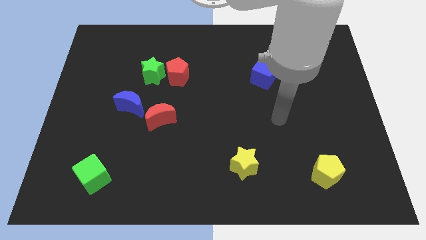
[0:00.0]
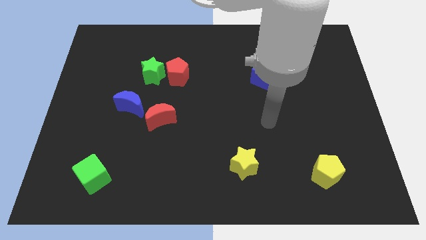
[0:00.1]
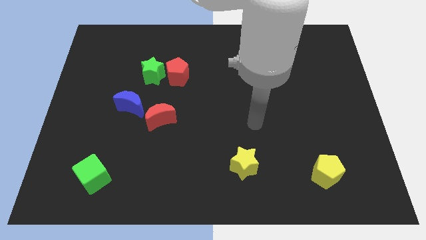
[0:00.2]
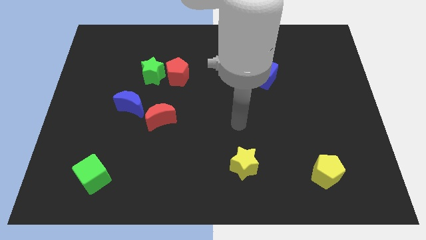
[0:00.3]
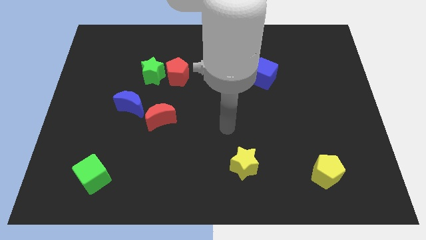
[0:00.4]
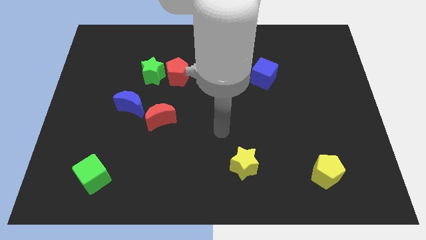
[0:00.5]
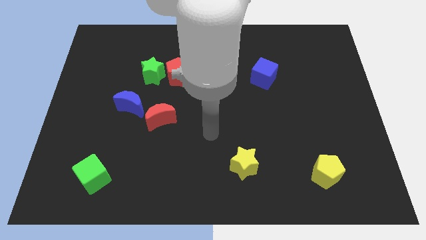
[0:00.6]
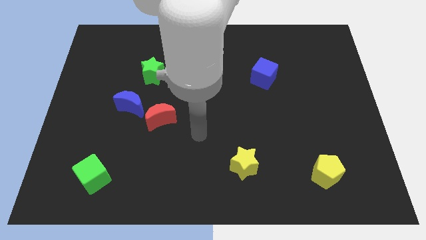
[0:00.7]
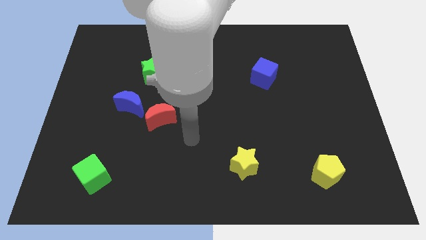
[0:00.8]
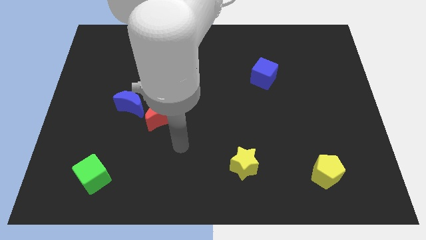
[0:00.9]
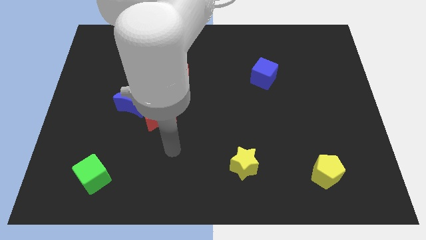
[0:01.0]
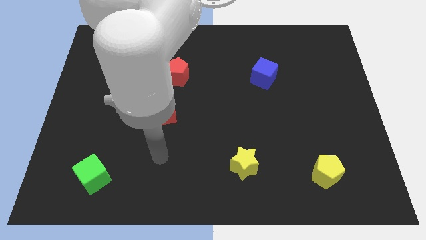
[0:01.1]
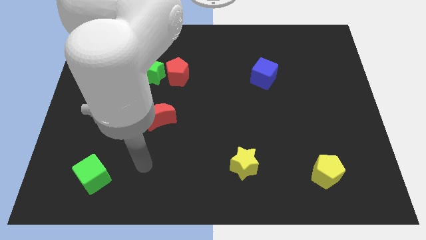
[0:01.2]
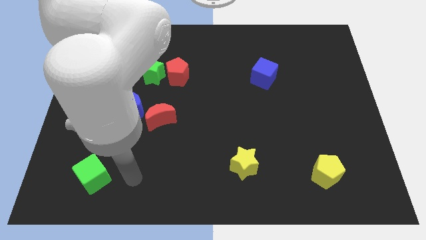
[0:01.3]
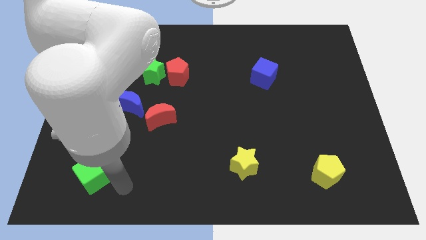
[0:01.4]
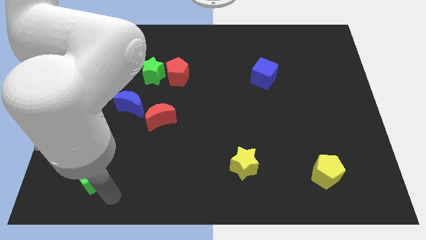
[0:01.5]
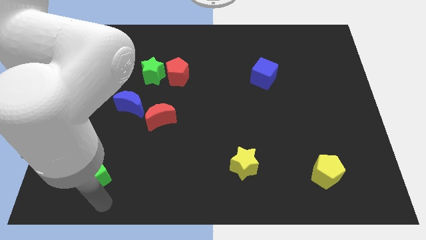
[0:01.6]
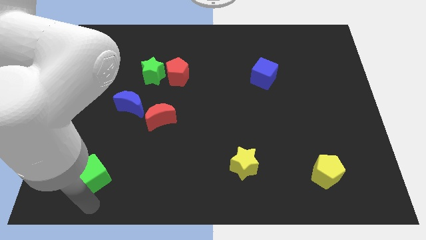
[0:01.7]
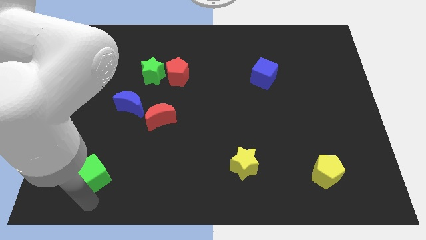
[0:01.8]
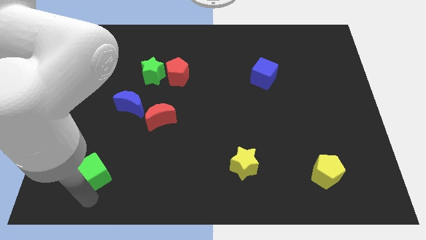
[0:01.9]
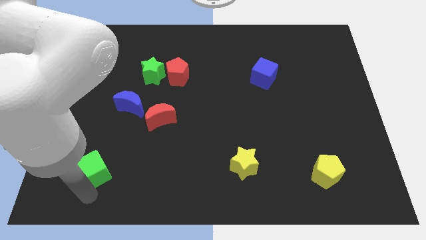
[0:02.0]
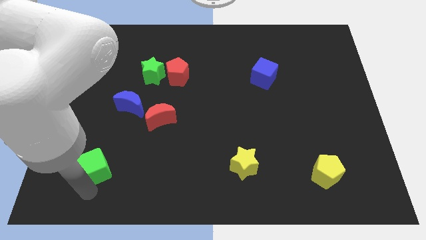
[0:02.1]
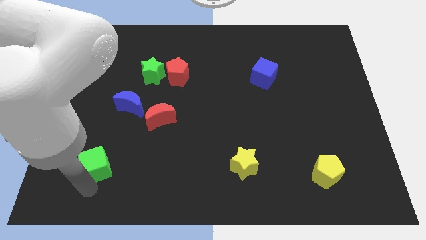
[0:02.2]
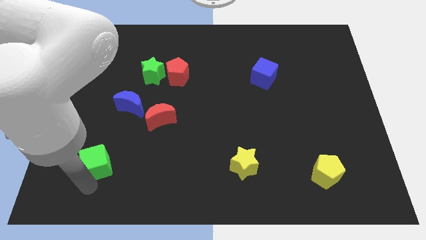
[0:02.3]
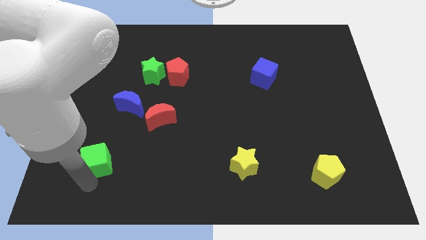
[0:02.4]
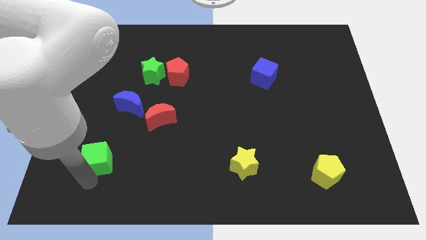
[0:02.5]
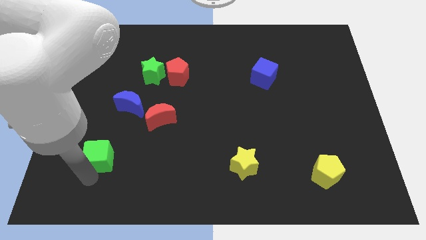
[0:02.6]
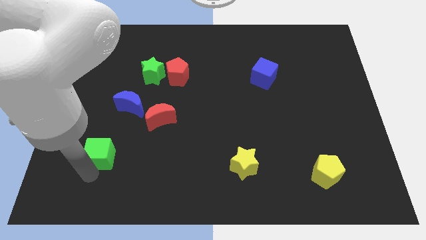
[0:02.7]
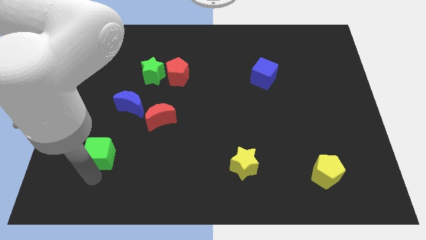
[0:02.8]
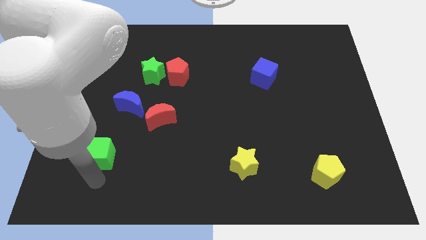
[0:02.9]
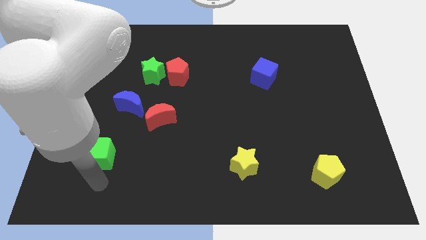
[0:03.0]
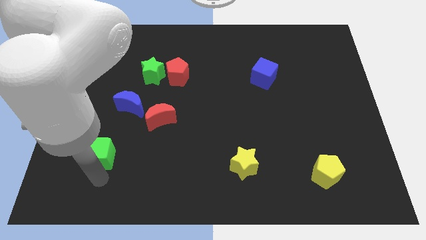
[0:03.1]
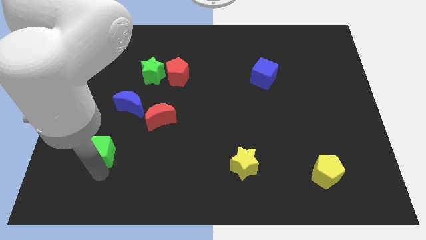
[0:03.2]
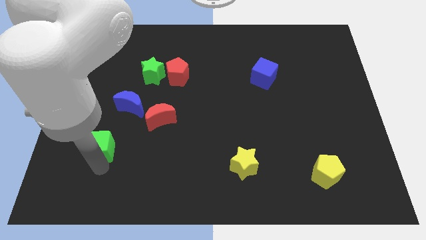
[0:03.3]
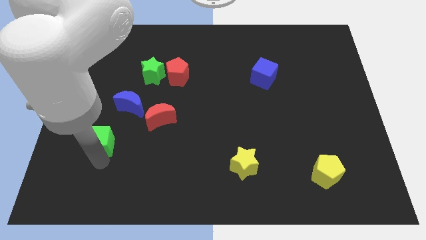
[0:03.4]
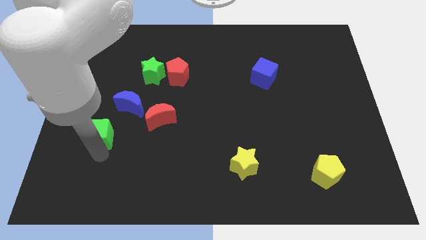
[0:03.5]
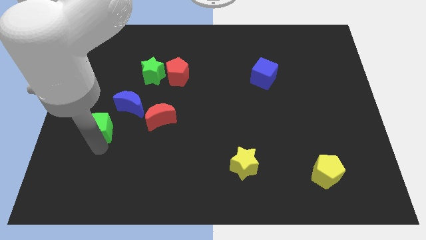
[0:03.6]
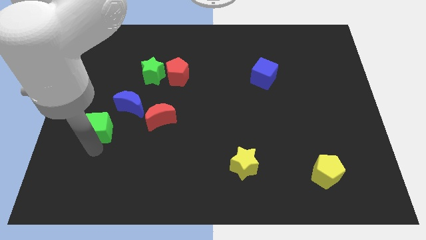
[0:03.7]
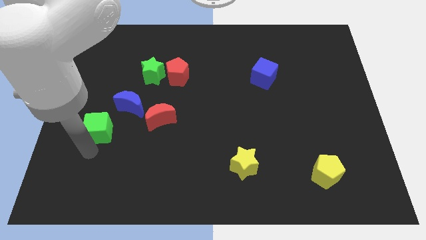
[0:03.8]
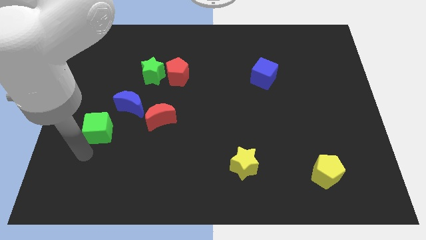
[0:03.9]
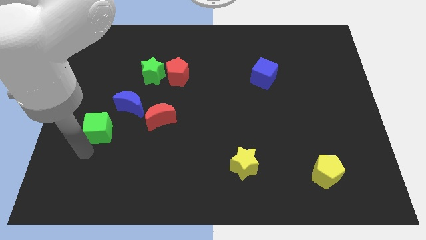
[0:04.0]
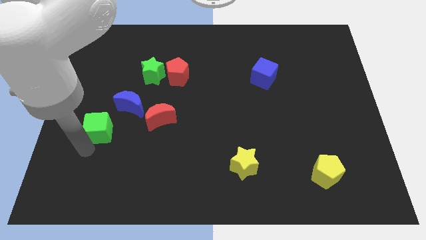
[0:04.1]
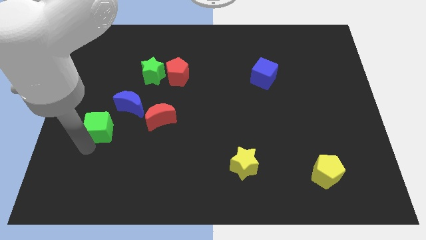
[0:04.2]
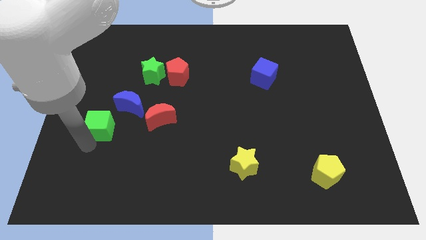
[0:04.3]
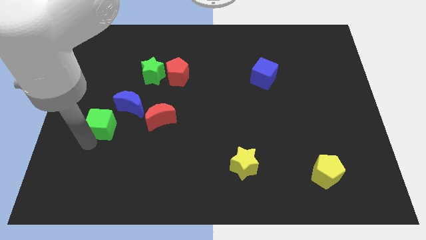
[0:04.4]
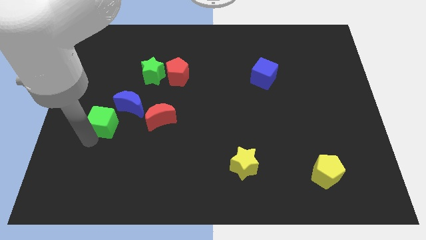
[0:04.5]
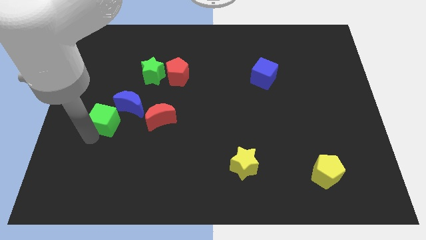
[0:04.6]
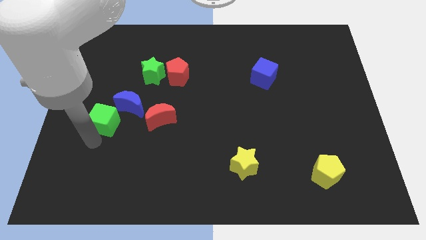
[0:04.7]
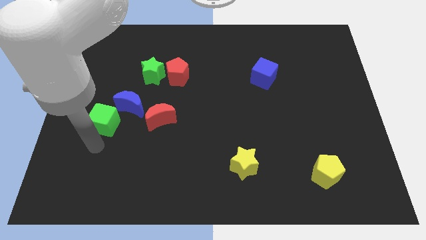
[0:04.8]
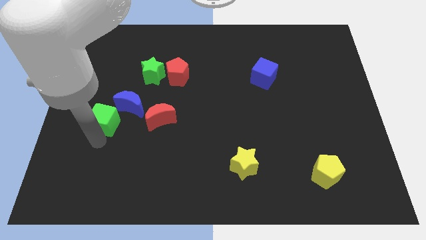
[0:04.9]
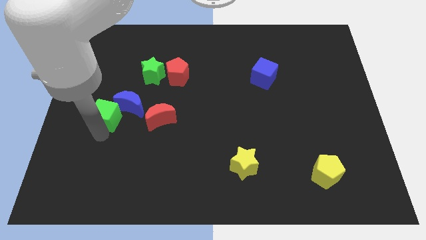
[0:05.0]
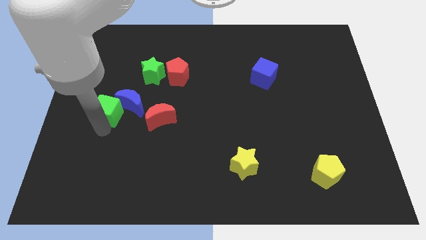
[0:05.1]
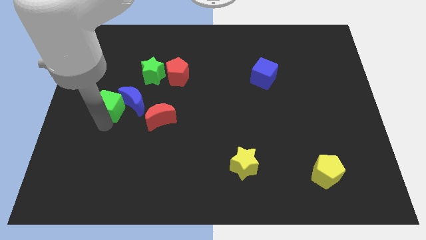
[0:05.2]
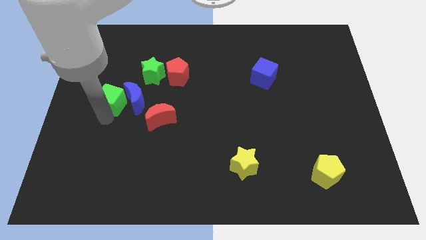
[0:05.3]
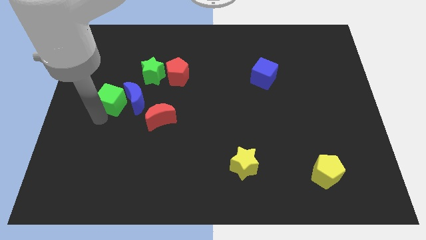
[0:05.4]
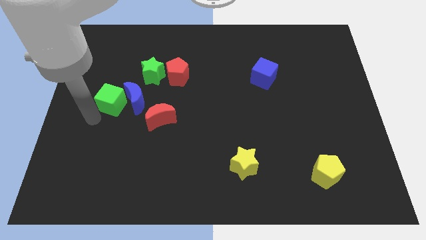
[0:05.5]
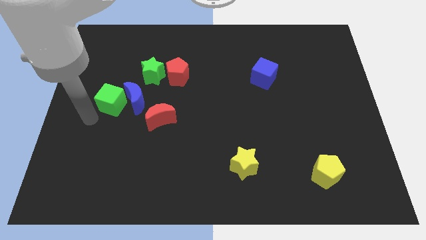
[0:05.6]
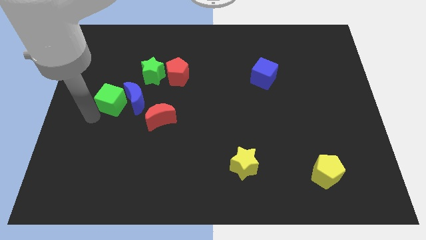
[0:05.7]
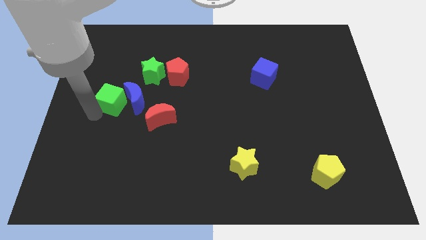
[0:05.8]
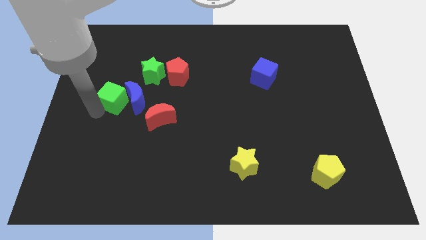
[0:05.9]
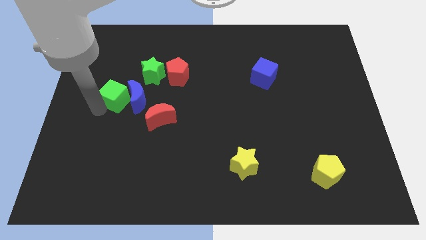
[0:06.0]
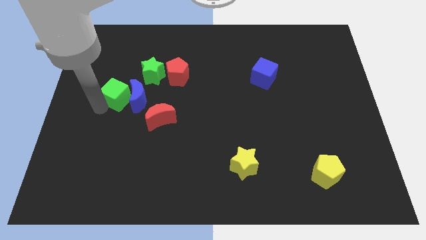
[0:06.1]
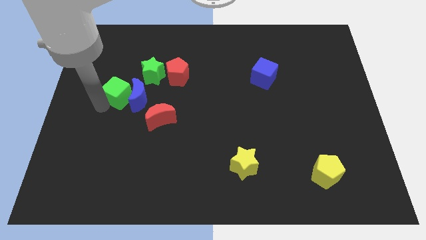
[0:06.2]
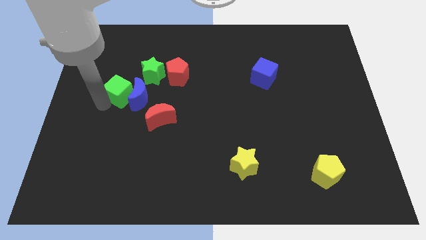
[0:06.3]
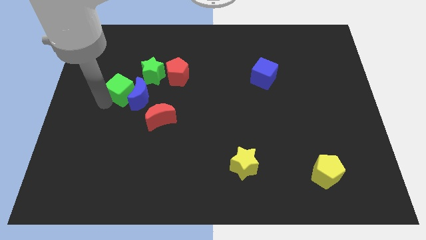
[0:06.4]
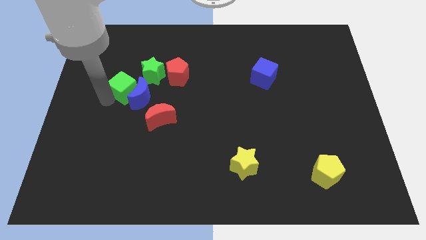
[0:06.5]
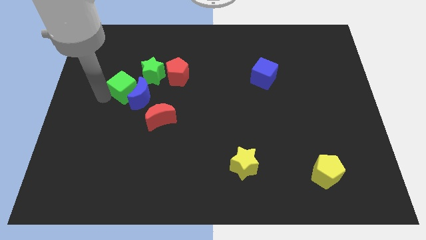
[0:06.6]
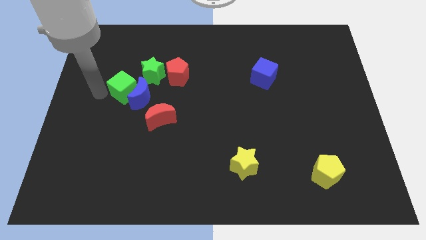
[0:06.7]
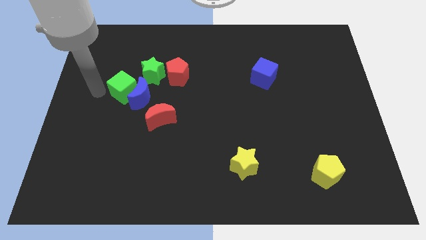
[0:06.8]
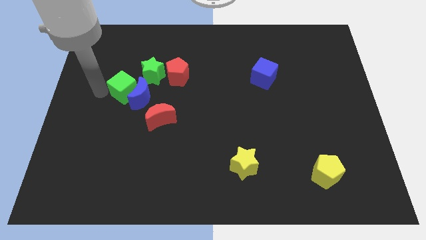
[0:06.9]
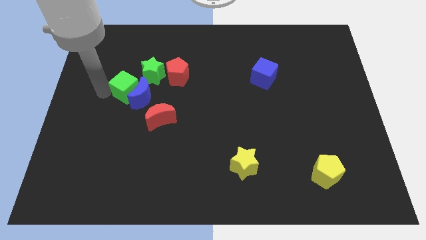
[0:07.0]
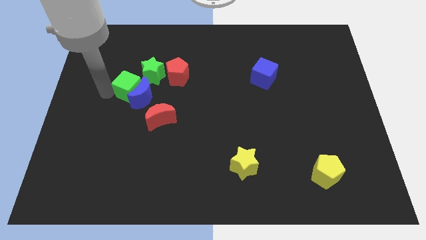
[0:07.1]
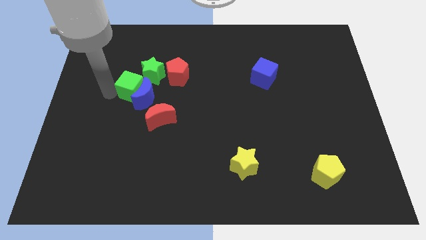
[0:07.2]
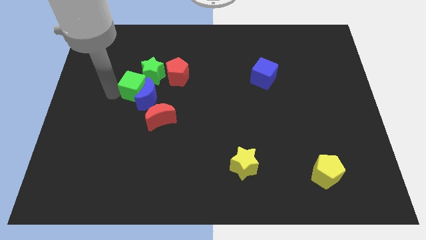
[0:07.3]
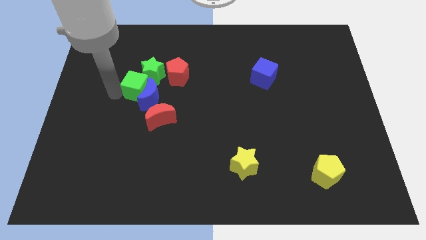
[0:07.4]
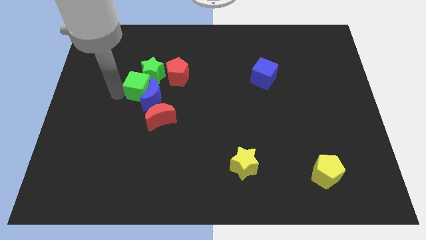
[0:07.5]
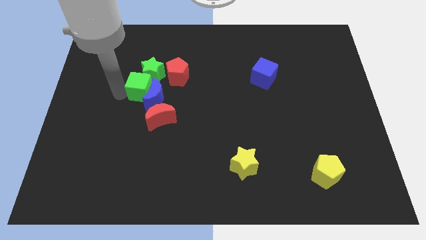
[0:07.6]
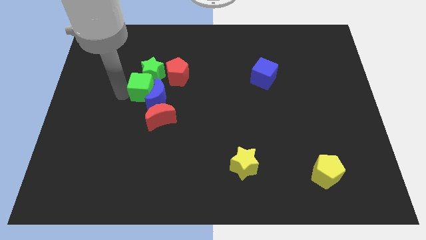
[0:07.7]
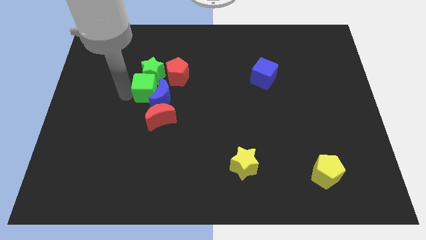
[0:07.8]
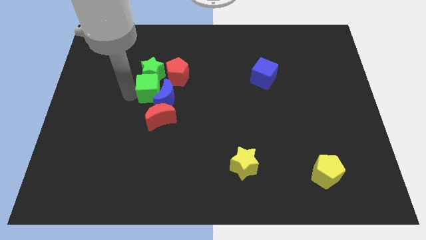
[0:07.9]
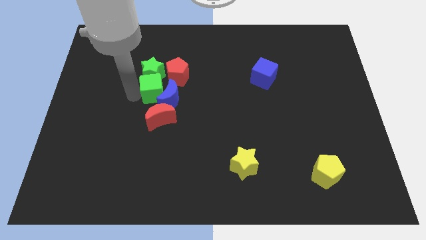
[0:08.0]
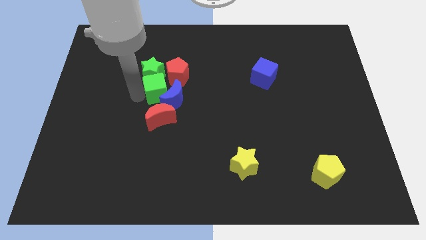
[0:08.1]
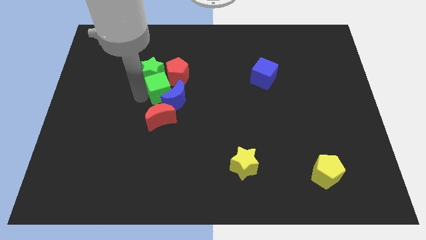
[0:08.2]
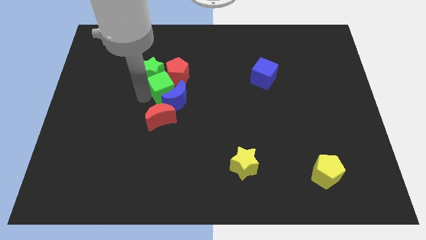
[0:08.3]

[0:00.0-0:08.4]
slide the green cube close to the red pentagon
